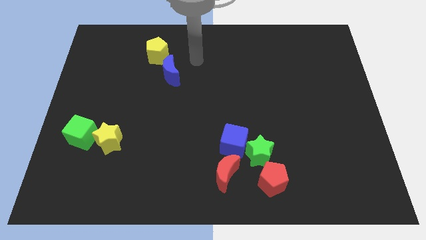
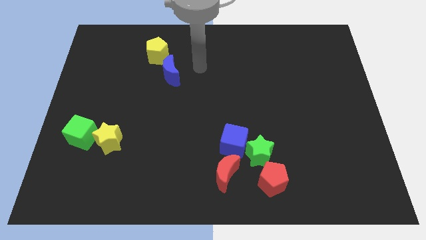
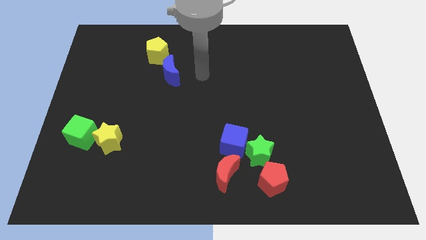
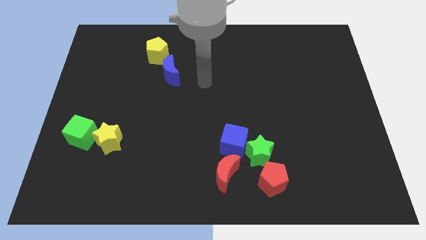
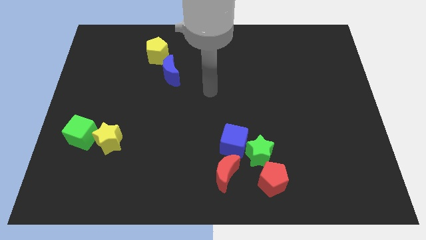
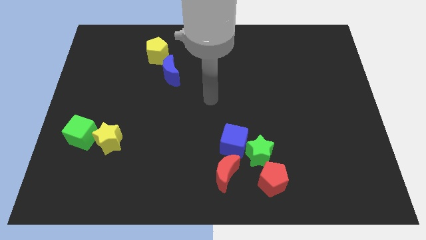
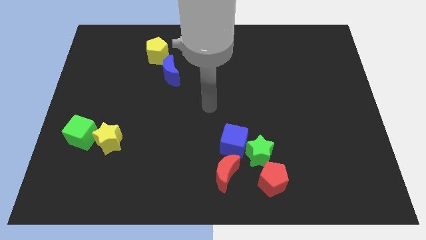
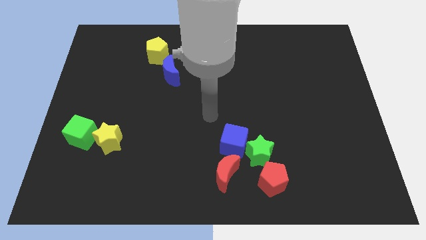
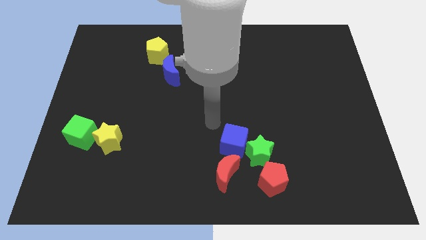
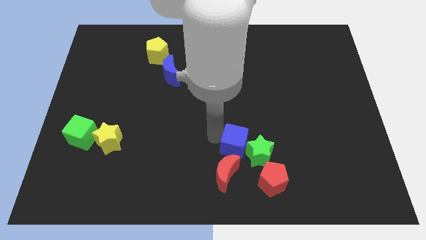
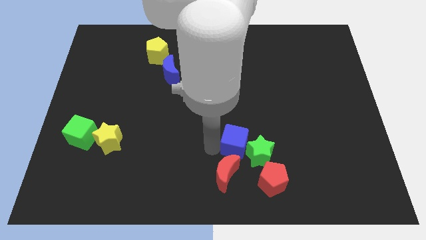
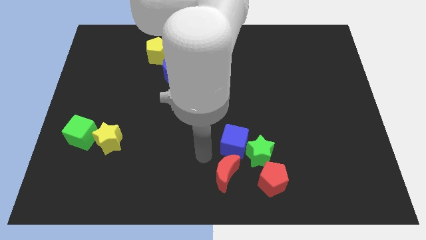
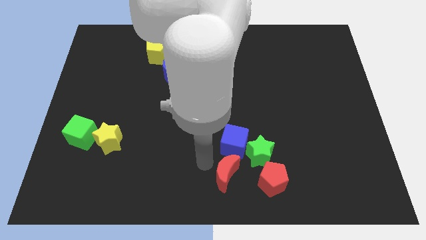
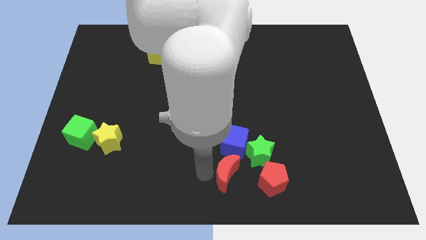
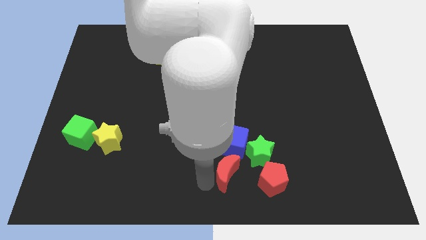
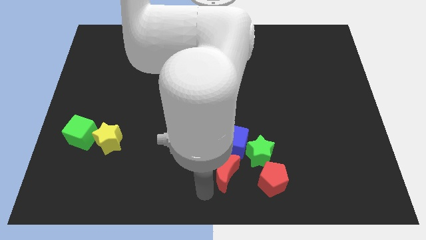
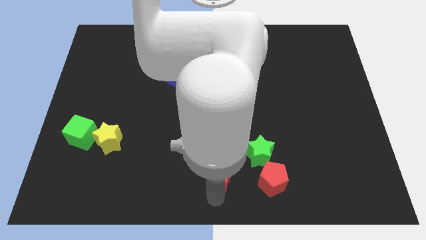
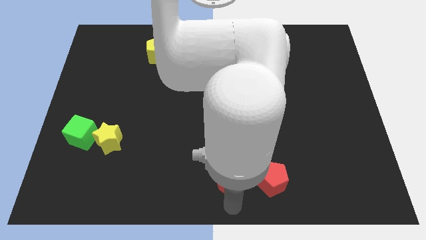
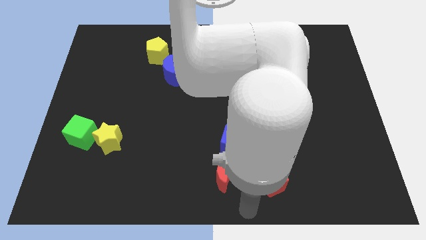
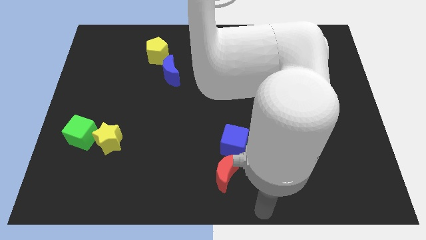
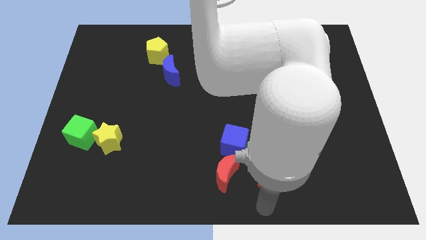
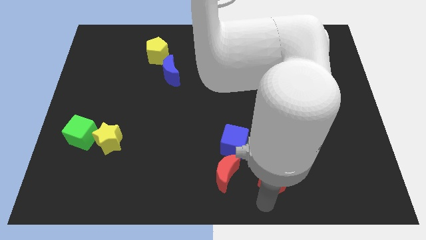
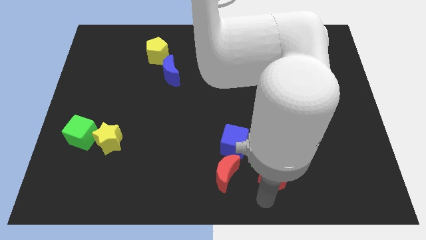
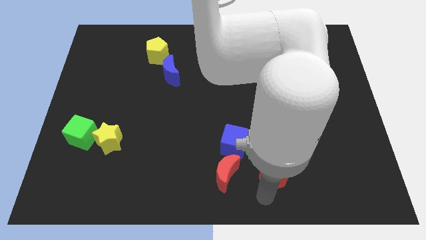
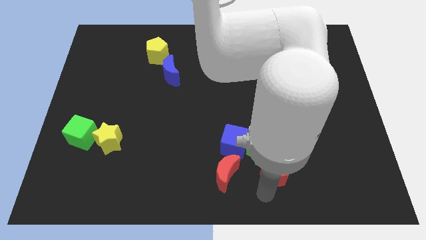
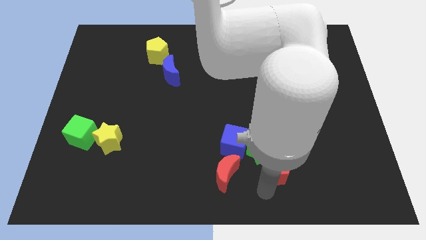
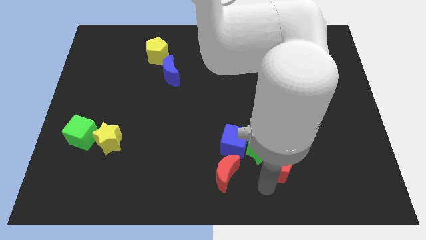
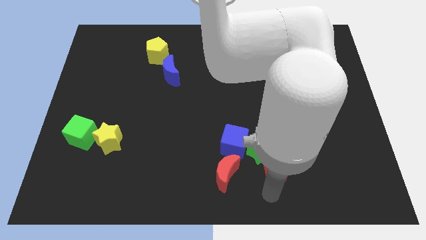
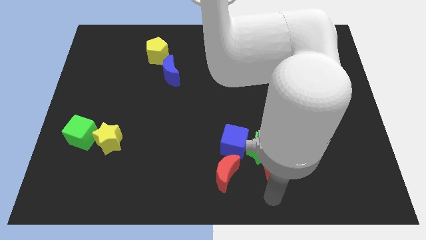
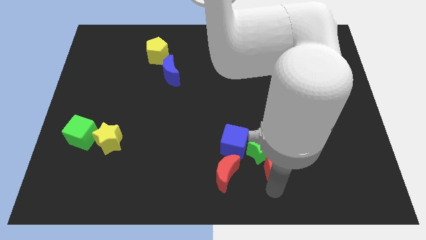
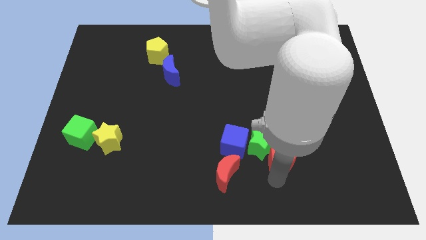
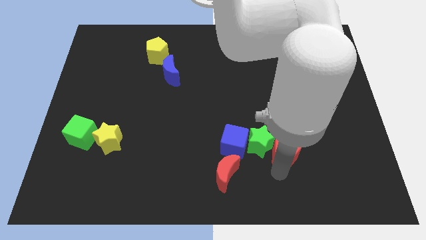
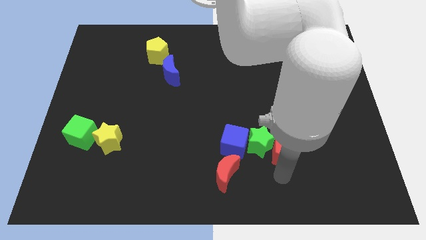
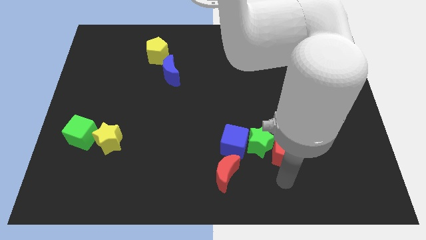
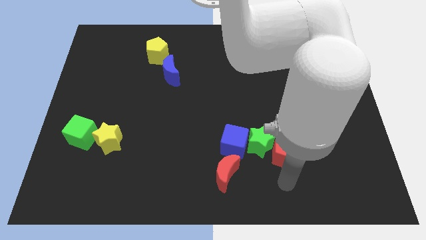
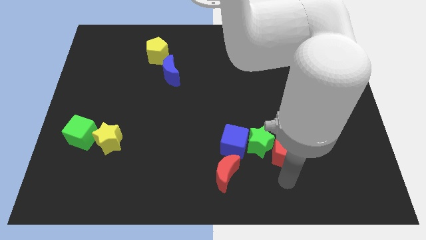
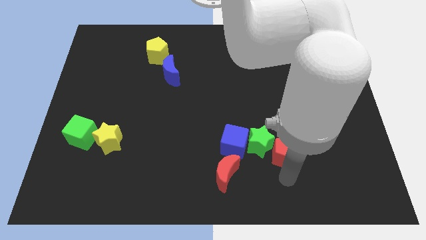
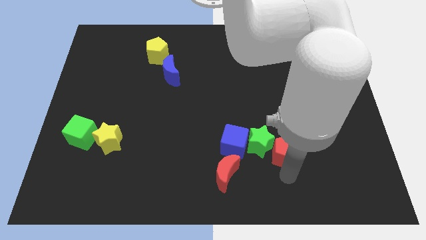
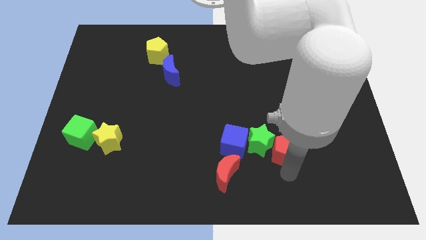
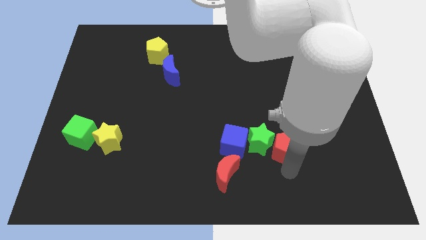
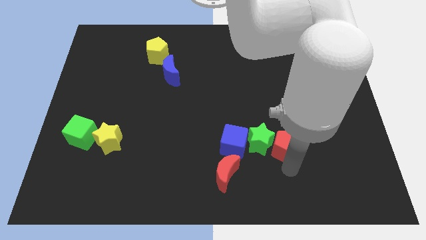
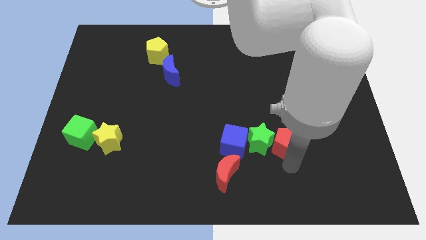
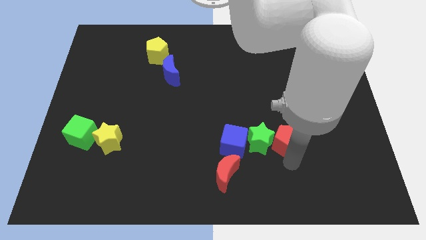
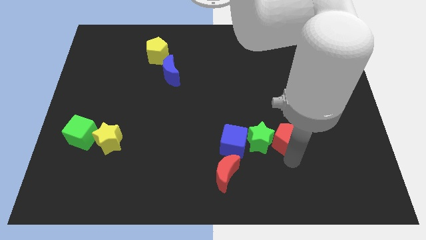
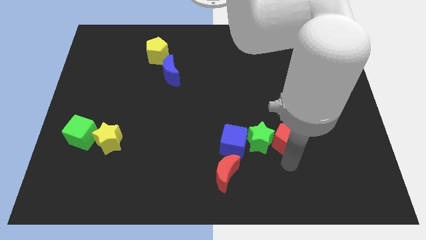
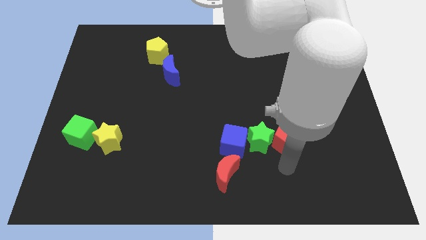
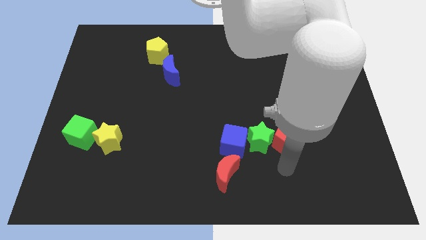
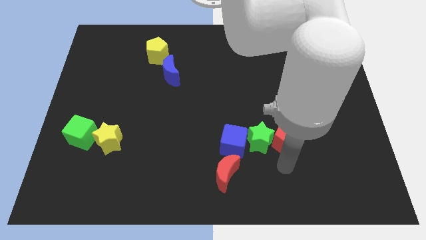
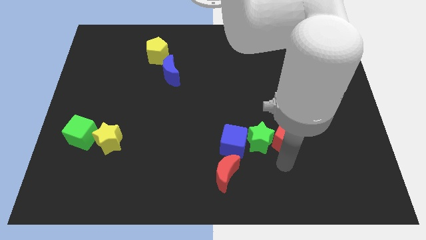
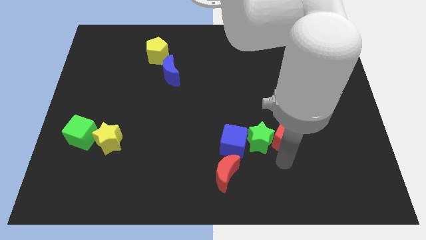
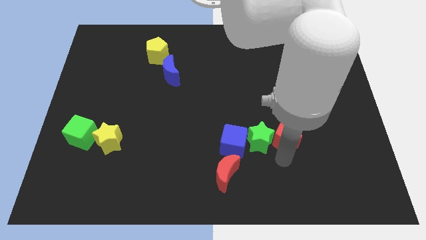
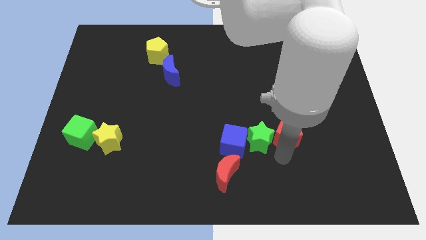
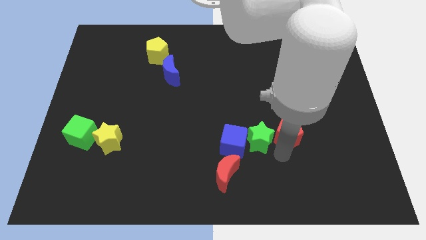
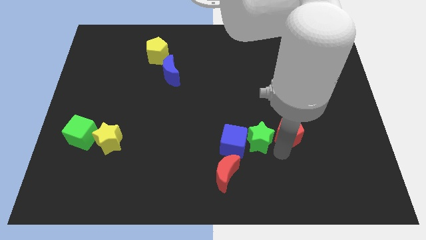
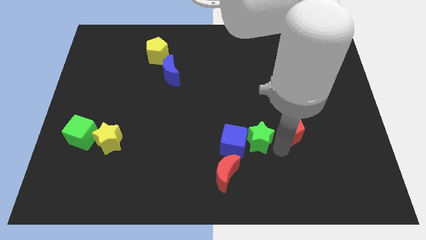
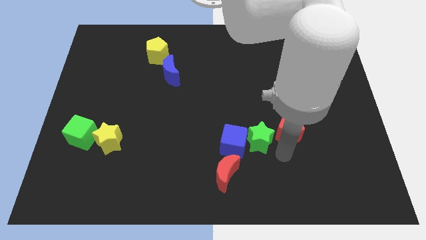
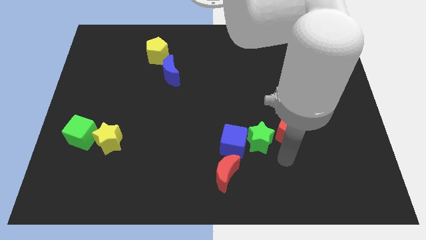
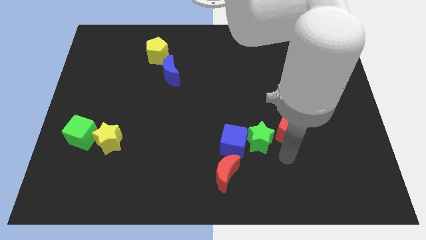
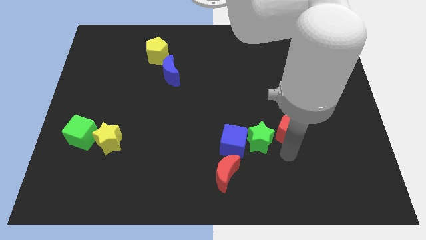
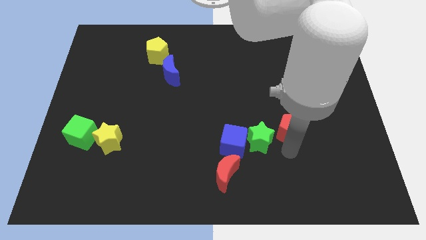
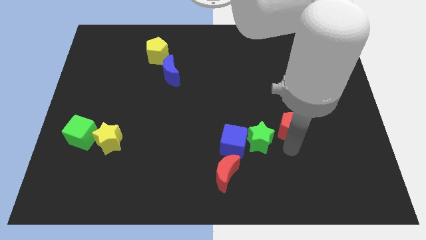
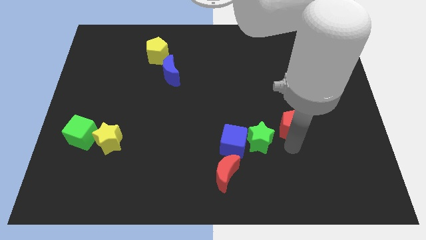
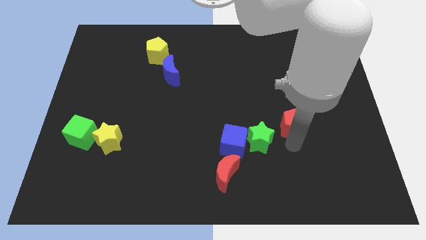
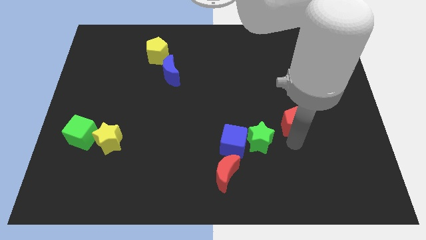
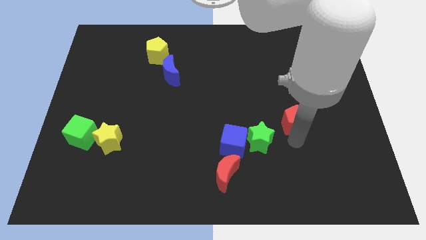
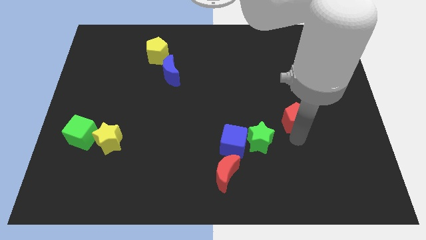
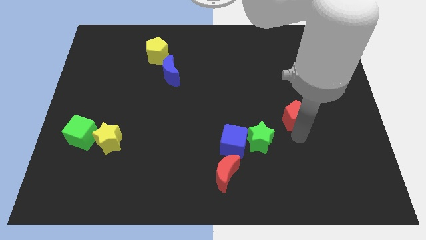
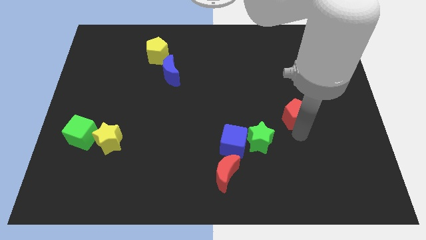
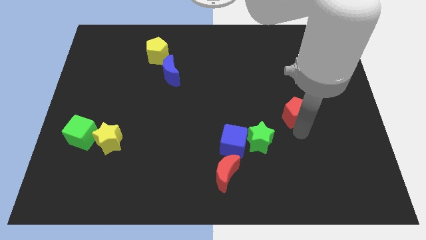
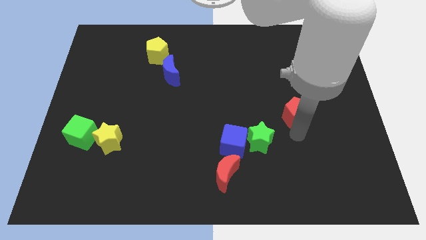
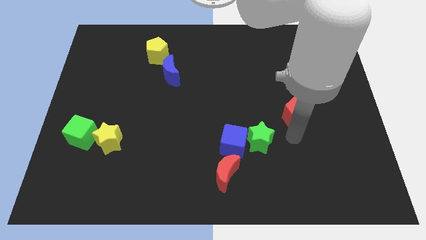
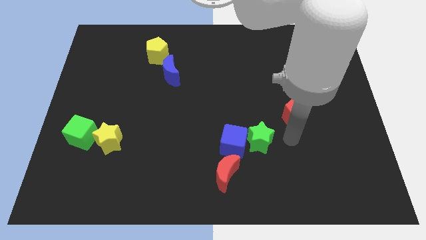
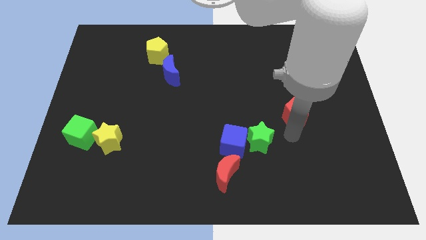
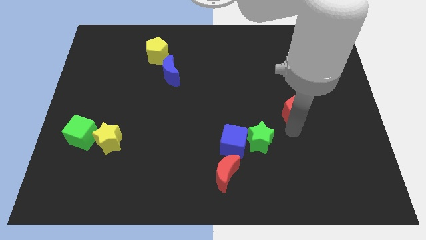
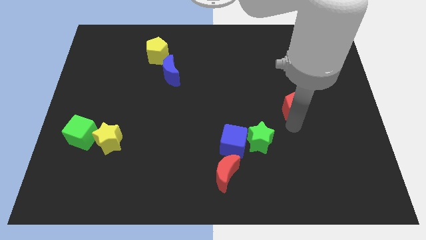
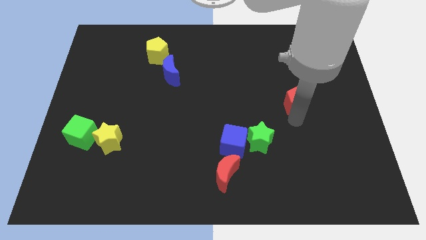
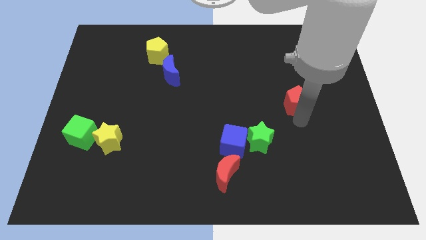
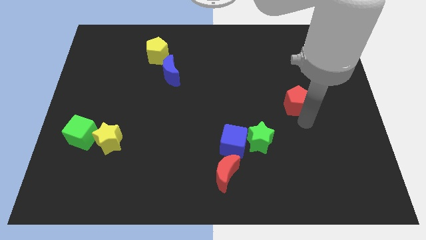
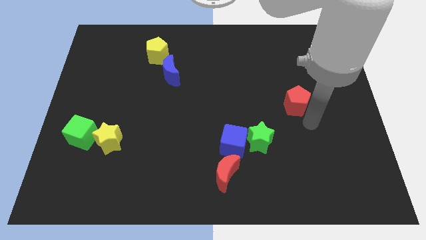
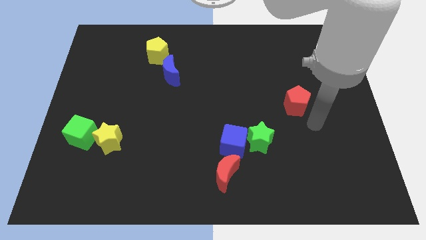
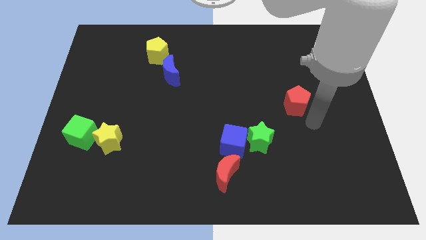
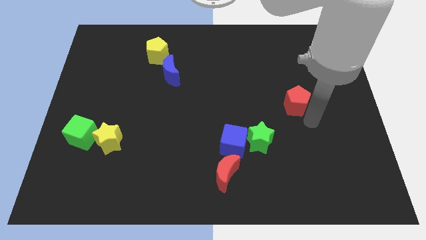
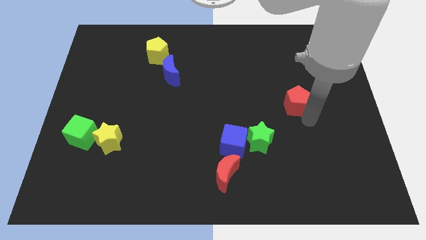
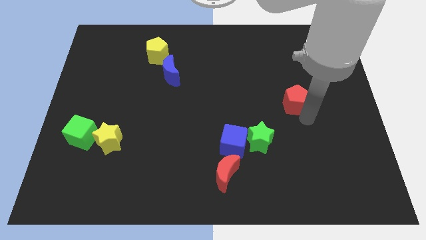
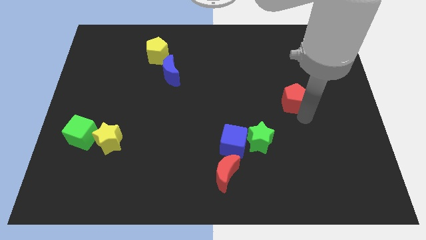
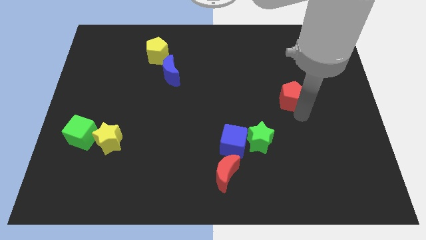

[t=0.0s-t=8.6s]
move the red pentagon upwards
